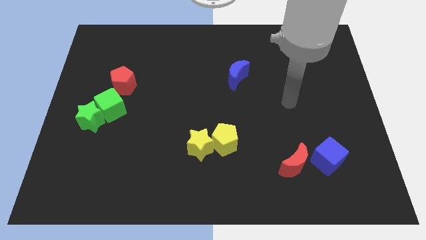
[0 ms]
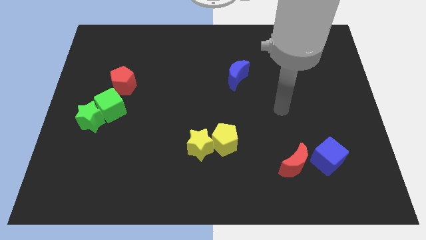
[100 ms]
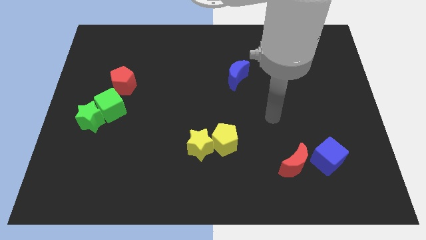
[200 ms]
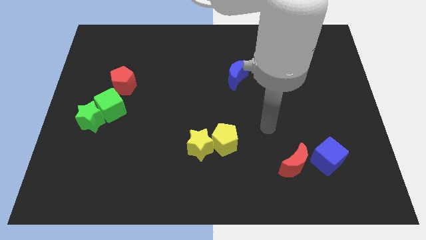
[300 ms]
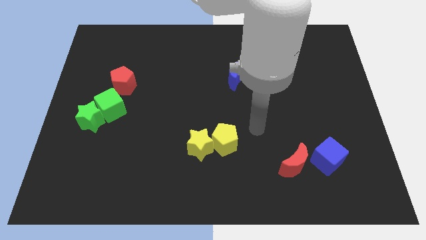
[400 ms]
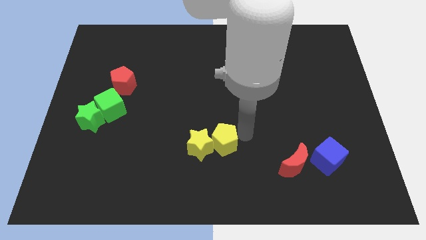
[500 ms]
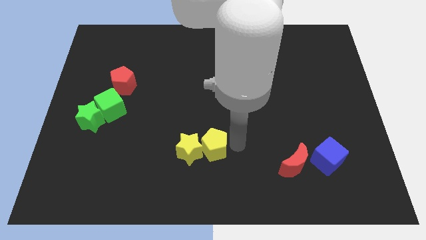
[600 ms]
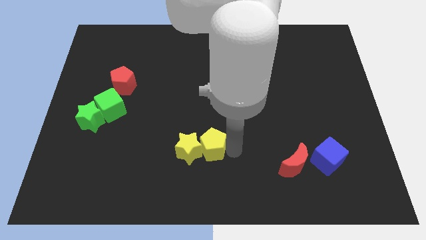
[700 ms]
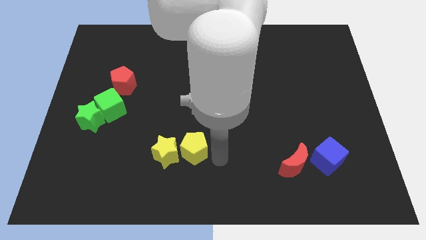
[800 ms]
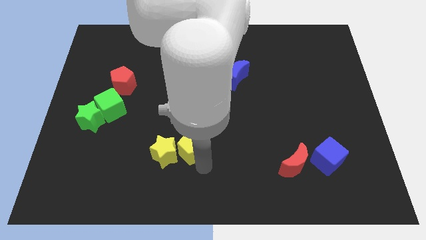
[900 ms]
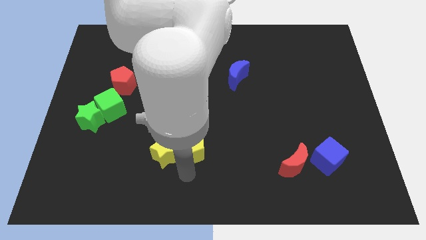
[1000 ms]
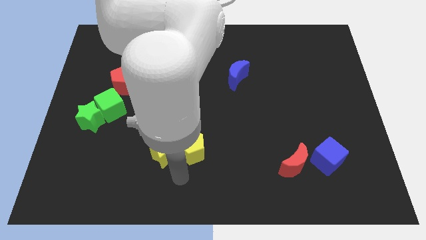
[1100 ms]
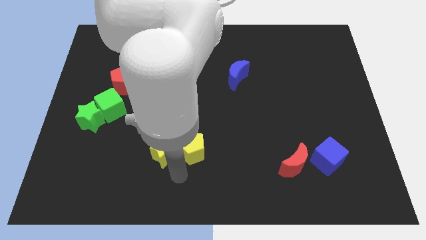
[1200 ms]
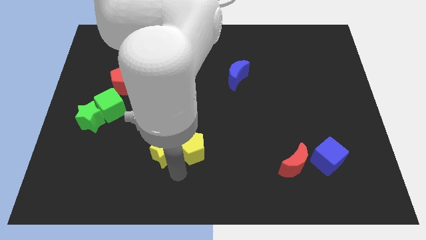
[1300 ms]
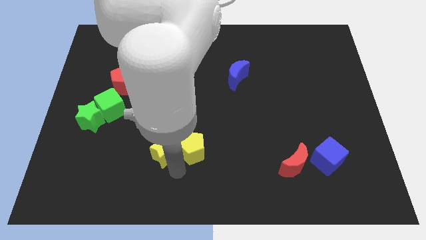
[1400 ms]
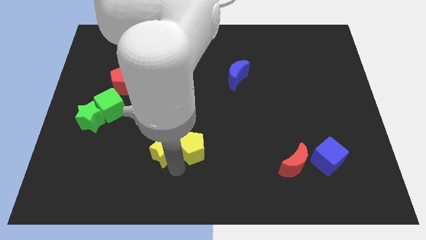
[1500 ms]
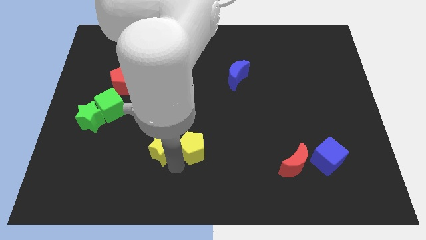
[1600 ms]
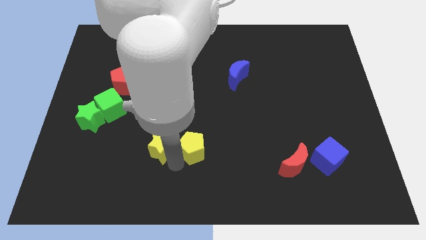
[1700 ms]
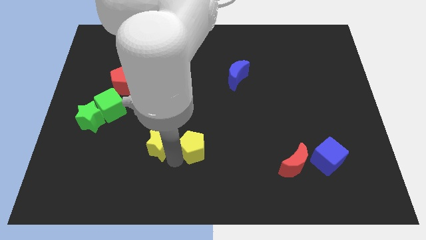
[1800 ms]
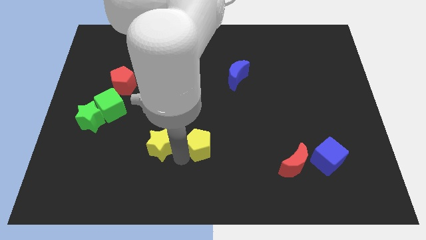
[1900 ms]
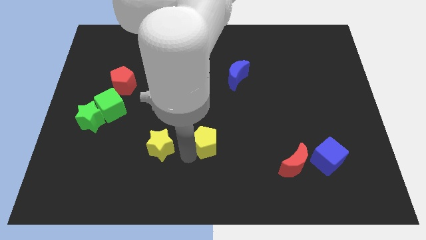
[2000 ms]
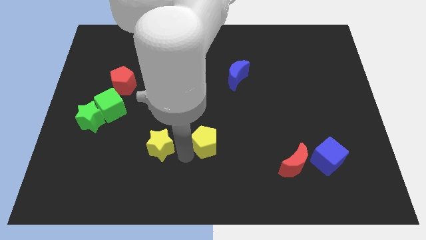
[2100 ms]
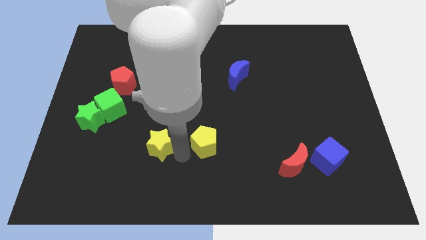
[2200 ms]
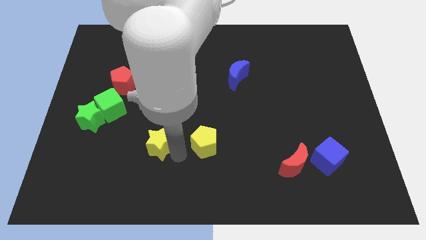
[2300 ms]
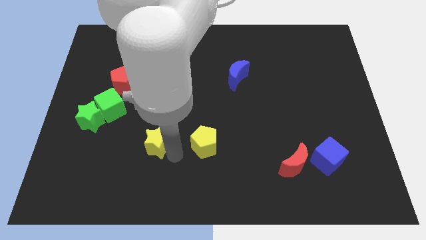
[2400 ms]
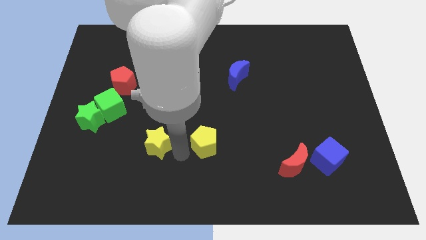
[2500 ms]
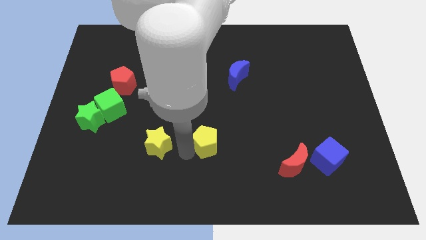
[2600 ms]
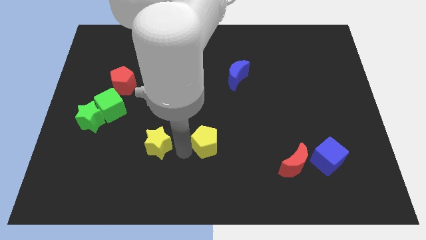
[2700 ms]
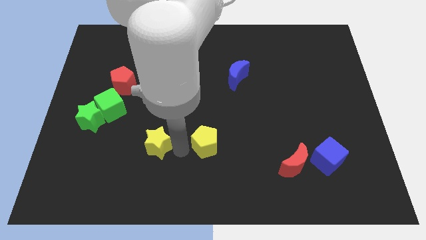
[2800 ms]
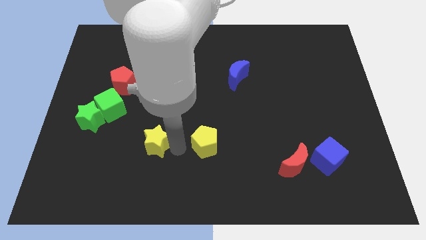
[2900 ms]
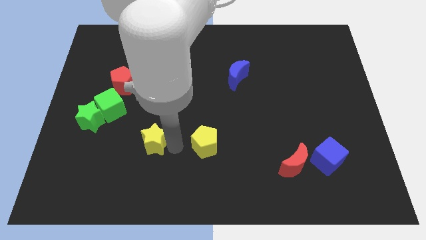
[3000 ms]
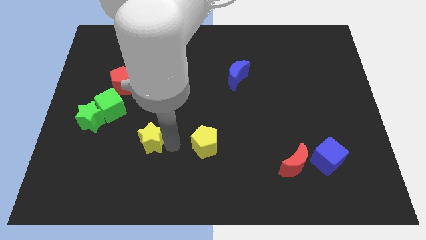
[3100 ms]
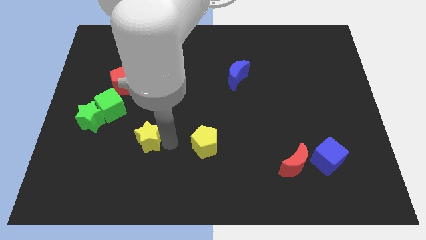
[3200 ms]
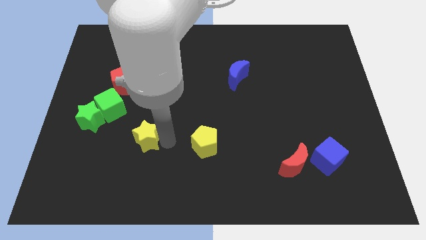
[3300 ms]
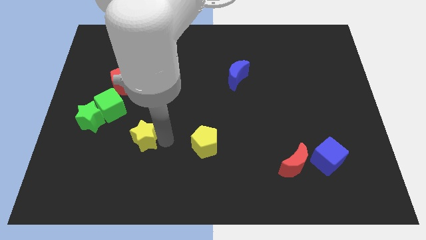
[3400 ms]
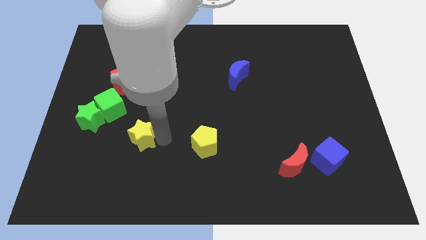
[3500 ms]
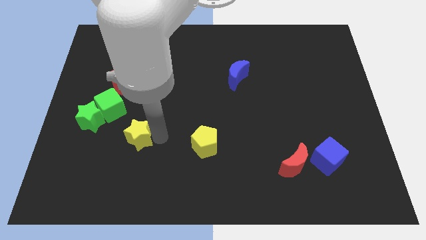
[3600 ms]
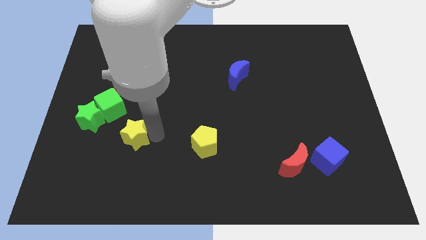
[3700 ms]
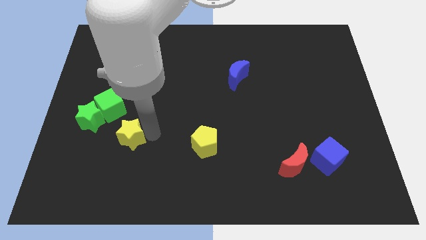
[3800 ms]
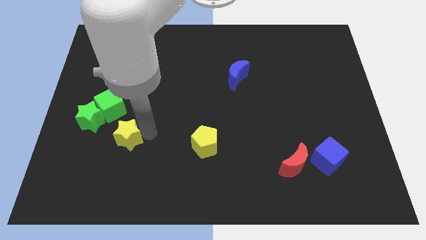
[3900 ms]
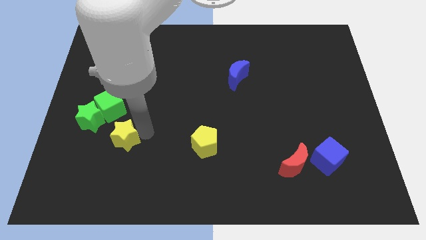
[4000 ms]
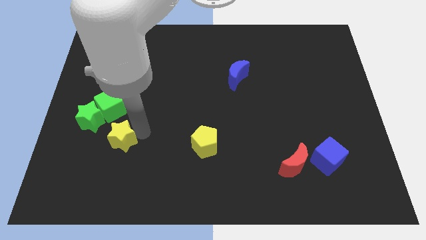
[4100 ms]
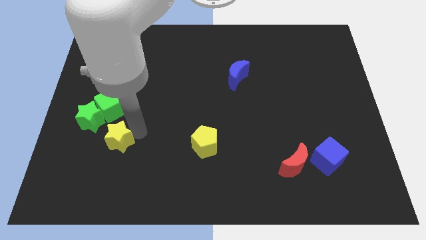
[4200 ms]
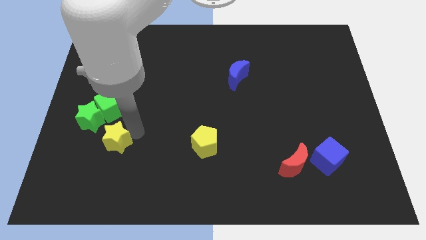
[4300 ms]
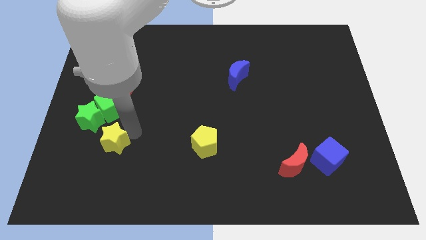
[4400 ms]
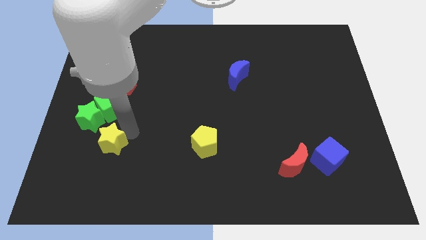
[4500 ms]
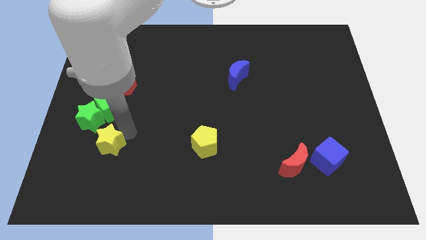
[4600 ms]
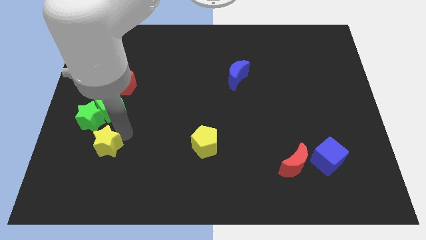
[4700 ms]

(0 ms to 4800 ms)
slide the yellow star to the bottom of the green star

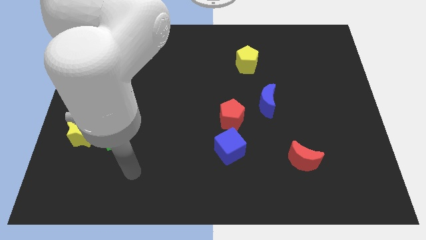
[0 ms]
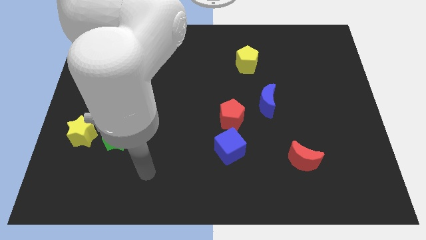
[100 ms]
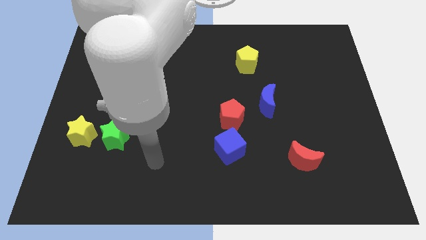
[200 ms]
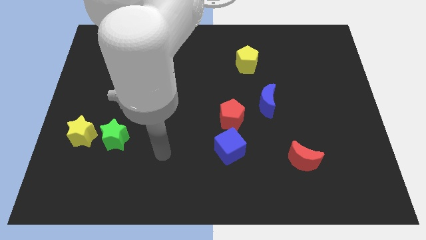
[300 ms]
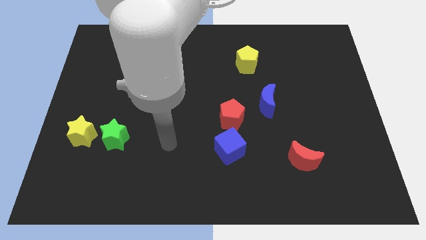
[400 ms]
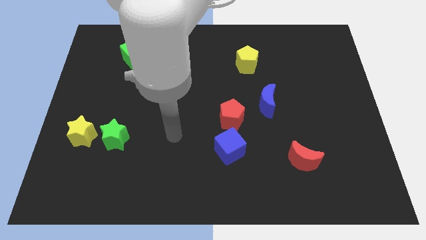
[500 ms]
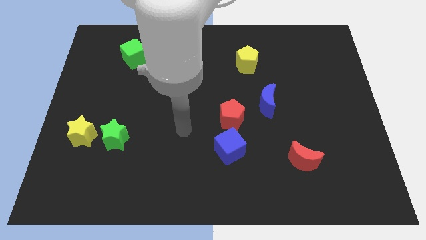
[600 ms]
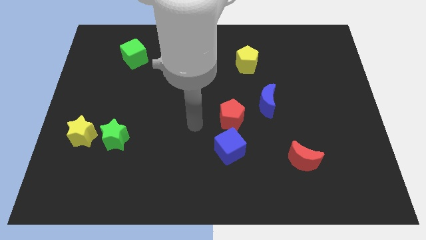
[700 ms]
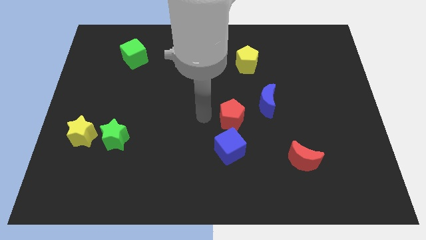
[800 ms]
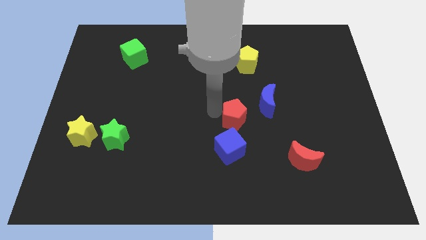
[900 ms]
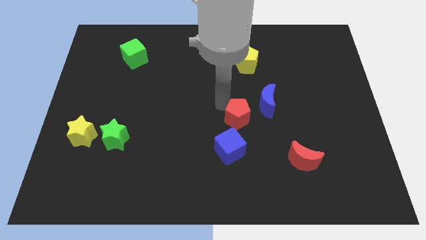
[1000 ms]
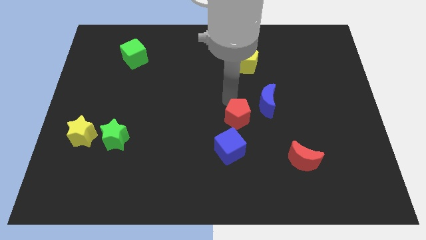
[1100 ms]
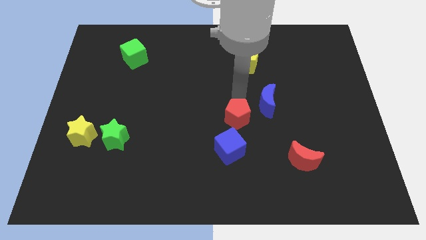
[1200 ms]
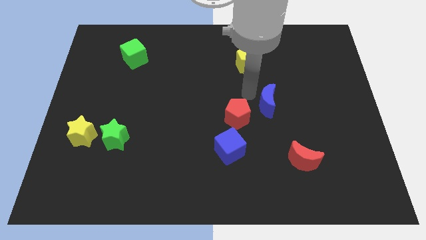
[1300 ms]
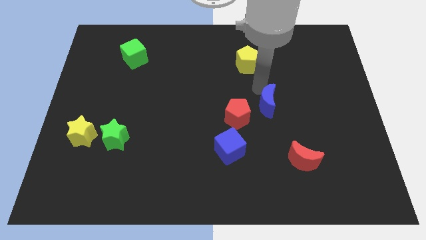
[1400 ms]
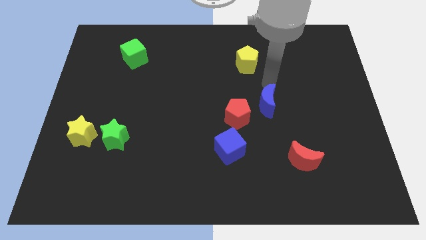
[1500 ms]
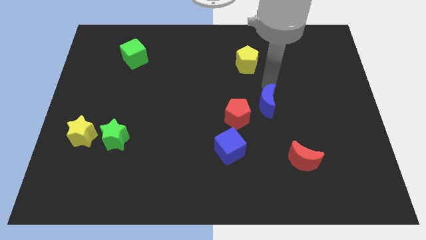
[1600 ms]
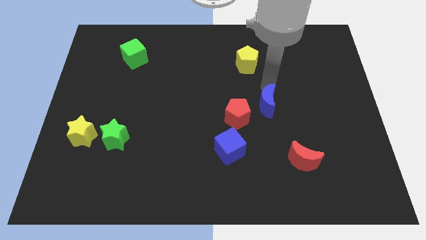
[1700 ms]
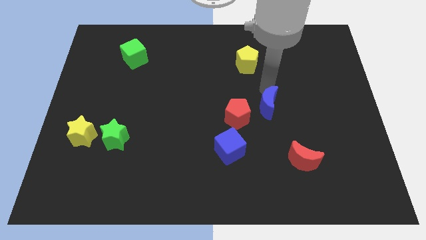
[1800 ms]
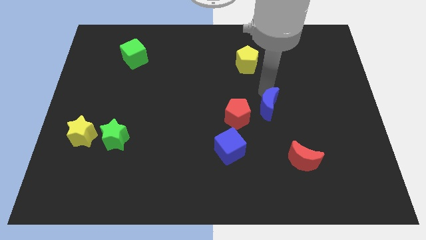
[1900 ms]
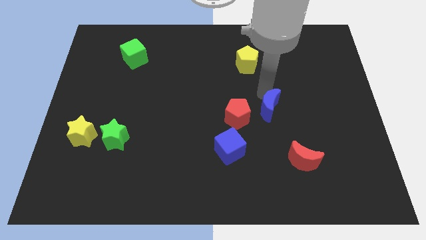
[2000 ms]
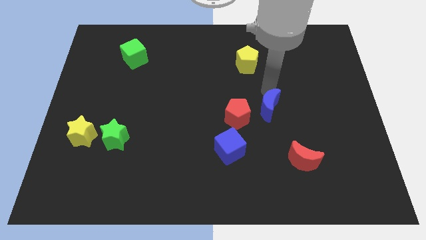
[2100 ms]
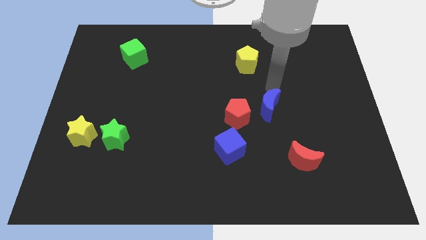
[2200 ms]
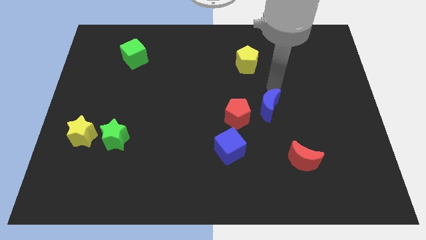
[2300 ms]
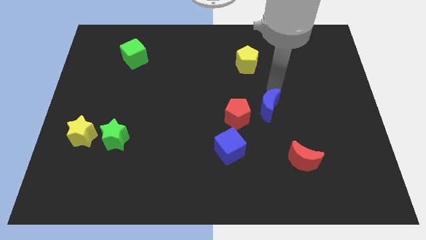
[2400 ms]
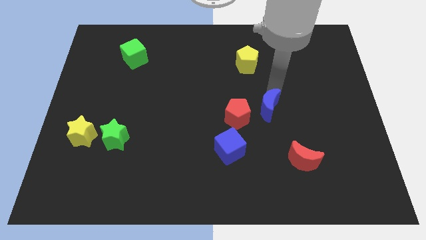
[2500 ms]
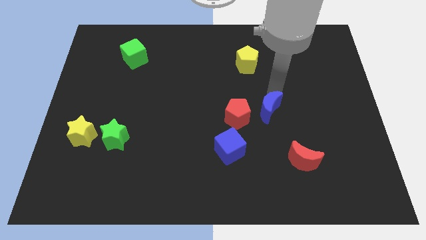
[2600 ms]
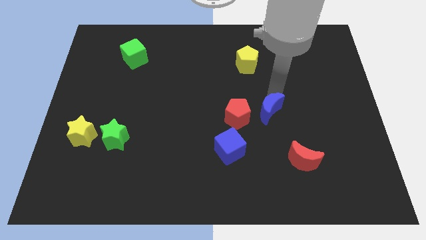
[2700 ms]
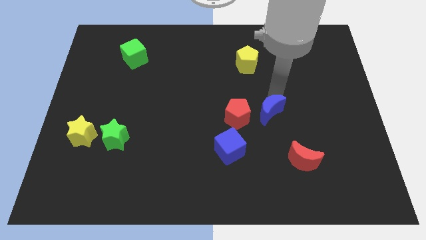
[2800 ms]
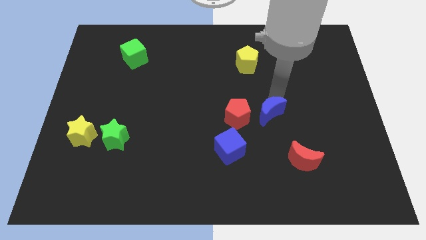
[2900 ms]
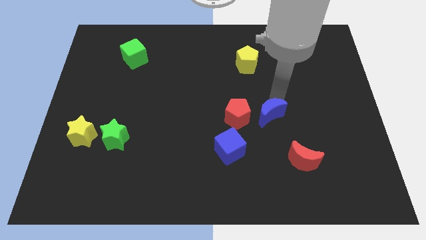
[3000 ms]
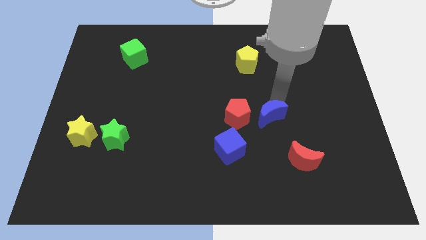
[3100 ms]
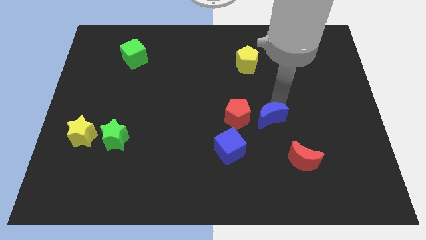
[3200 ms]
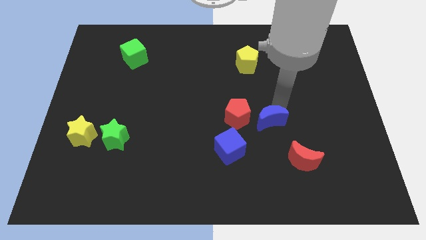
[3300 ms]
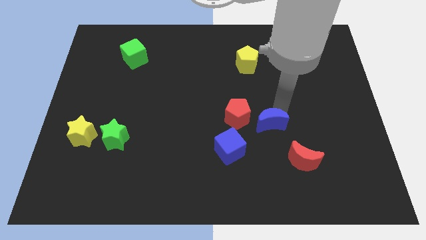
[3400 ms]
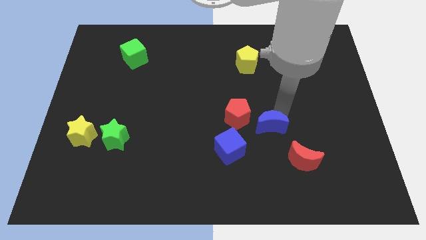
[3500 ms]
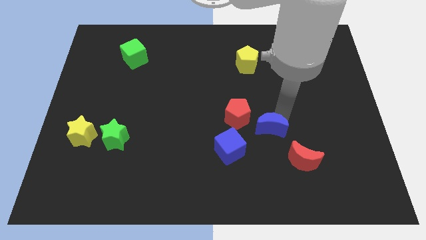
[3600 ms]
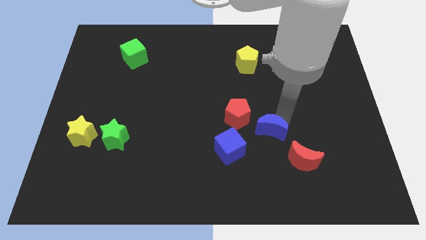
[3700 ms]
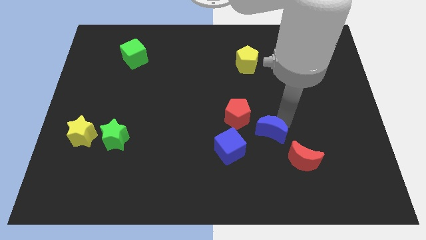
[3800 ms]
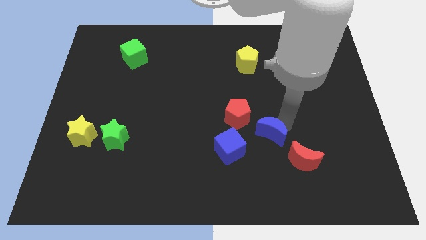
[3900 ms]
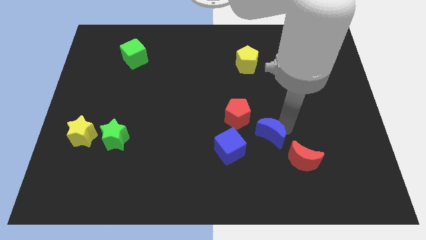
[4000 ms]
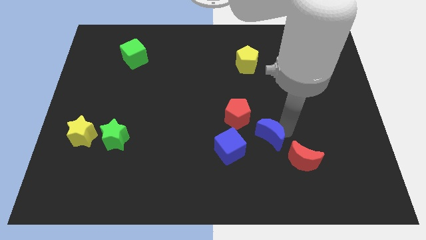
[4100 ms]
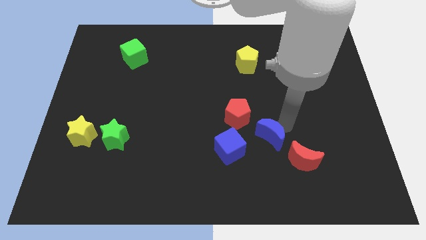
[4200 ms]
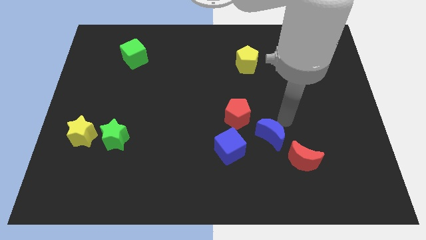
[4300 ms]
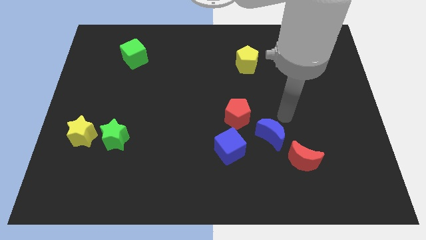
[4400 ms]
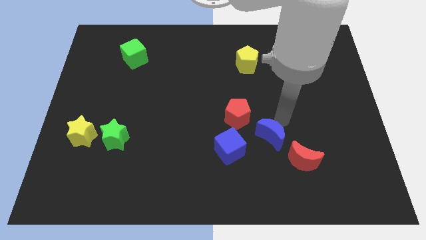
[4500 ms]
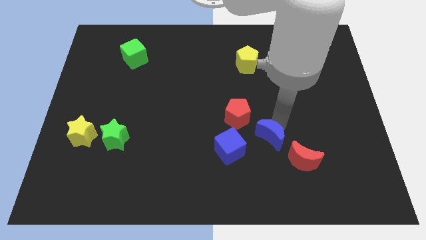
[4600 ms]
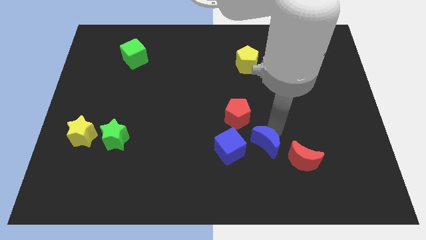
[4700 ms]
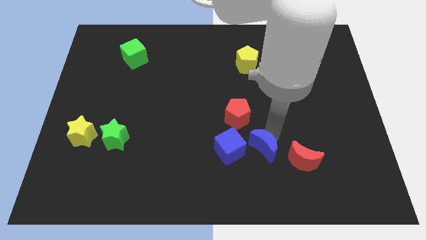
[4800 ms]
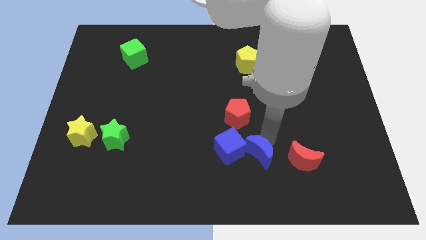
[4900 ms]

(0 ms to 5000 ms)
move the blue moon diagonally down and to the right of the blue cube
